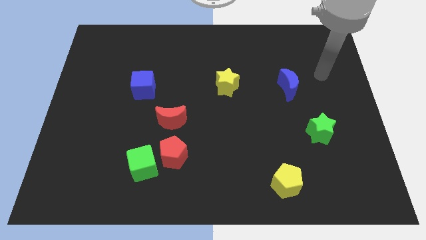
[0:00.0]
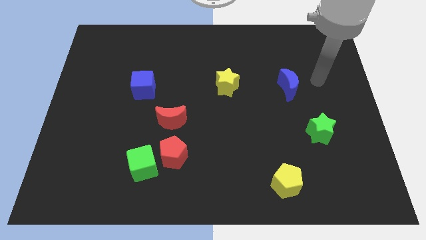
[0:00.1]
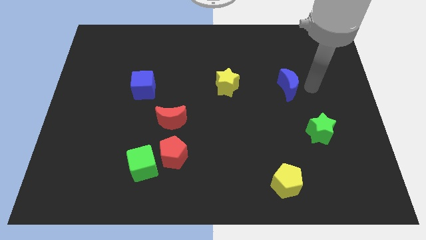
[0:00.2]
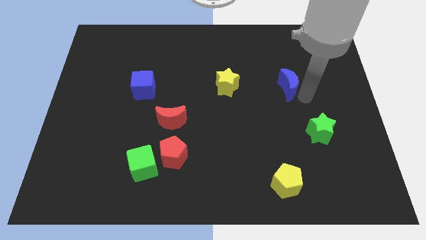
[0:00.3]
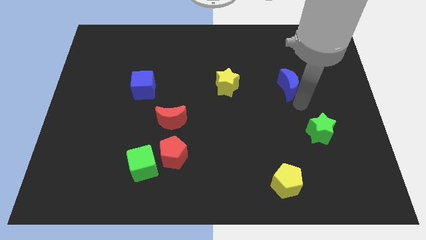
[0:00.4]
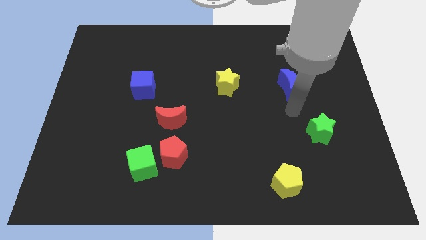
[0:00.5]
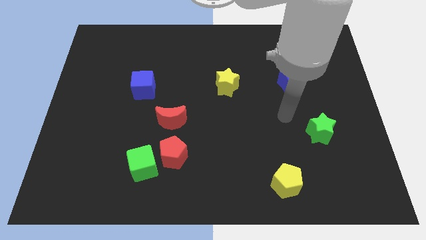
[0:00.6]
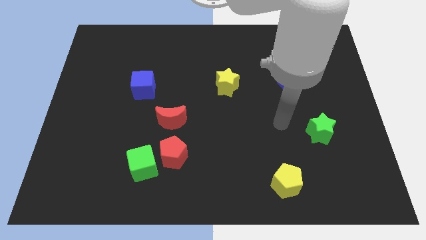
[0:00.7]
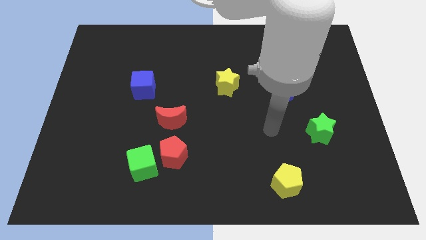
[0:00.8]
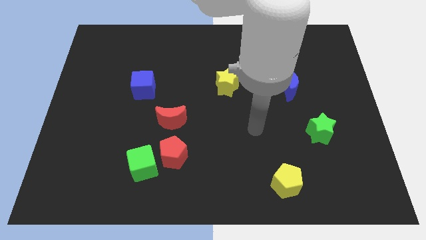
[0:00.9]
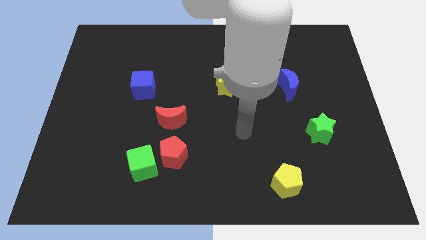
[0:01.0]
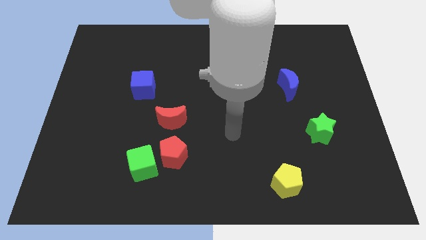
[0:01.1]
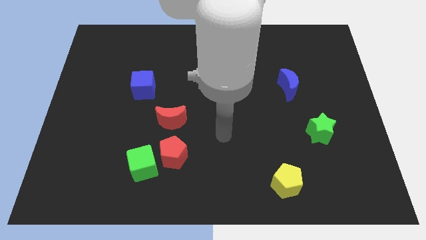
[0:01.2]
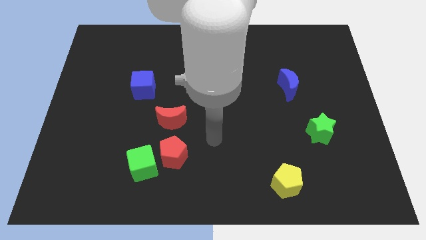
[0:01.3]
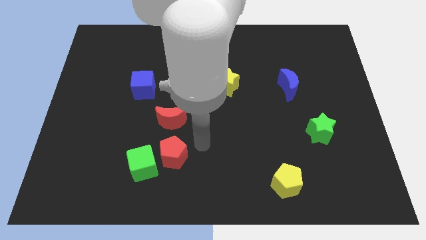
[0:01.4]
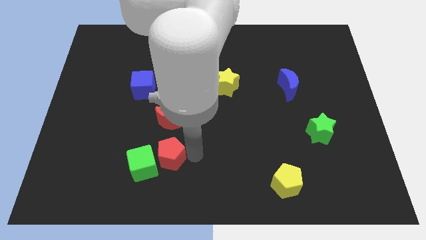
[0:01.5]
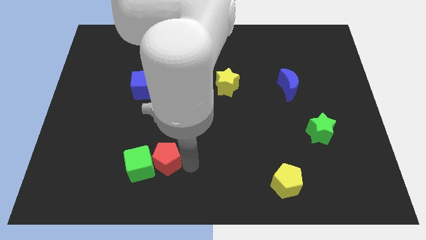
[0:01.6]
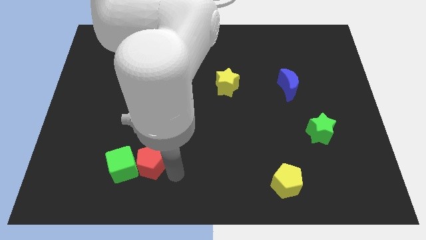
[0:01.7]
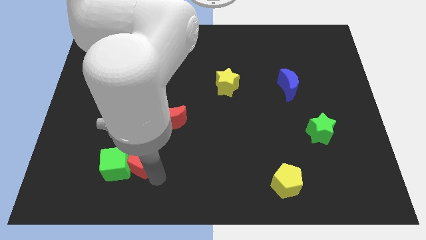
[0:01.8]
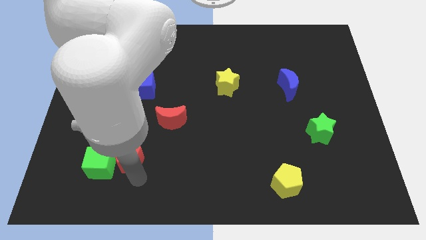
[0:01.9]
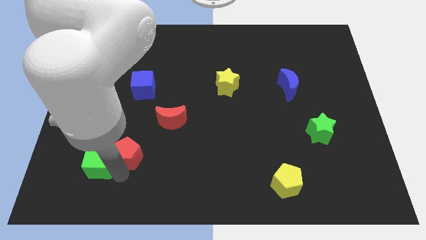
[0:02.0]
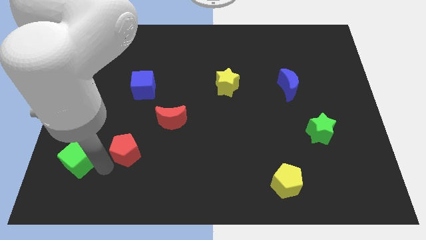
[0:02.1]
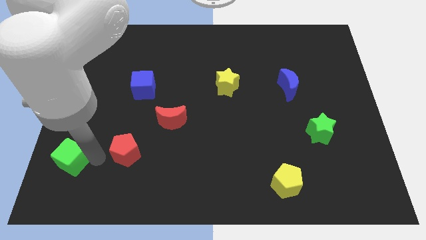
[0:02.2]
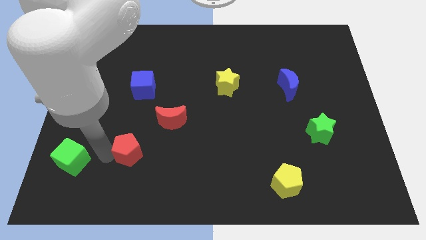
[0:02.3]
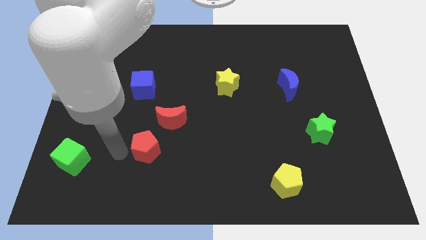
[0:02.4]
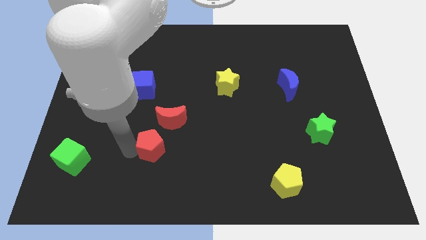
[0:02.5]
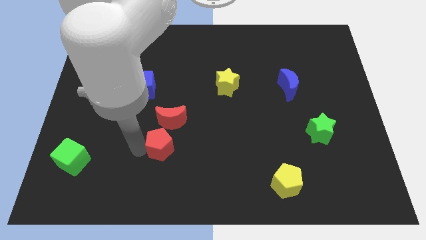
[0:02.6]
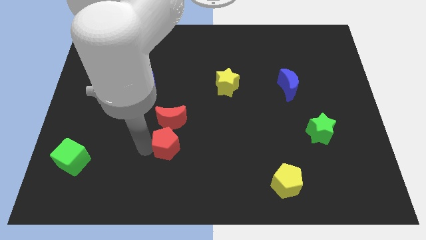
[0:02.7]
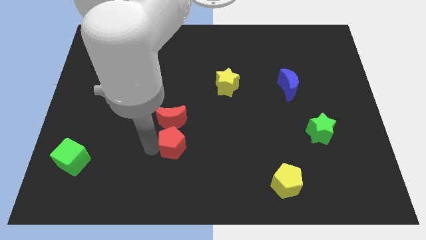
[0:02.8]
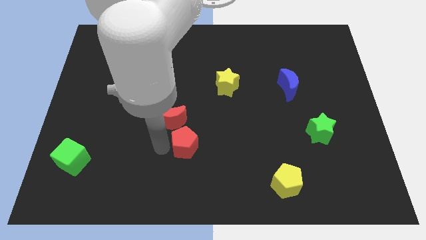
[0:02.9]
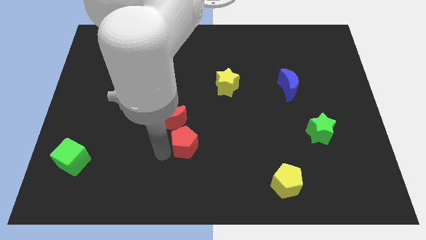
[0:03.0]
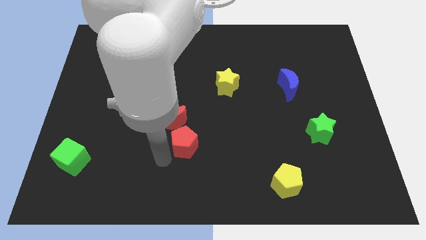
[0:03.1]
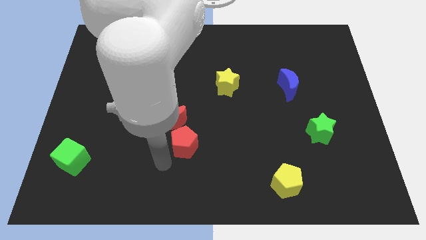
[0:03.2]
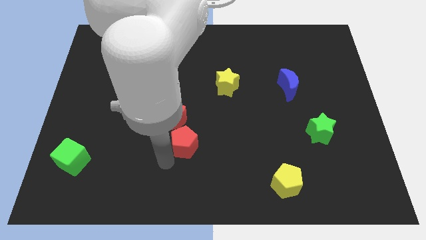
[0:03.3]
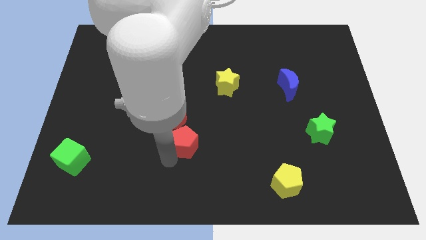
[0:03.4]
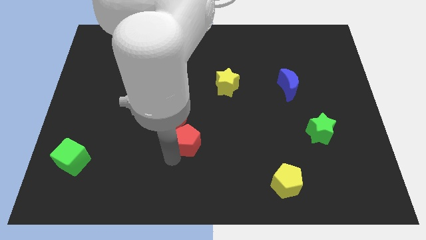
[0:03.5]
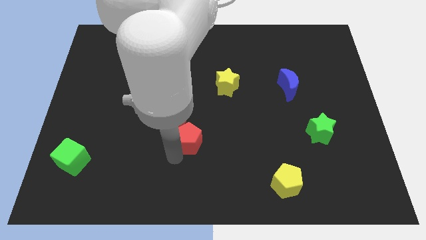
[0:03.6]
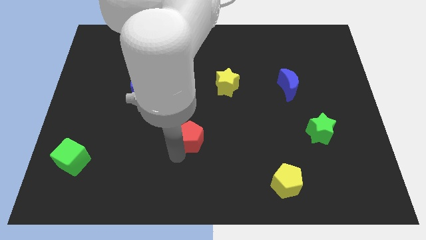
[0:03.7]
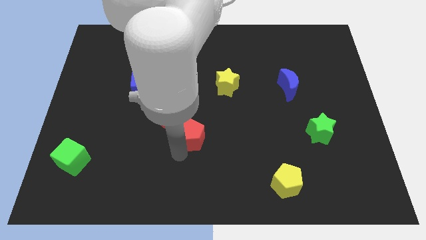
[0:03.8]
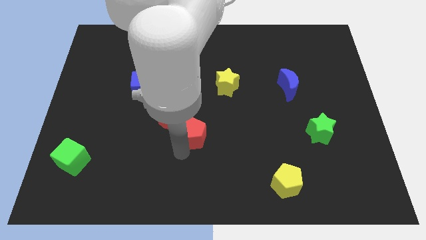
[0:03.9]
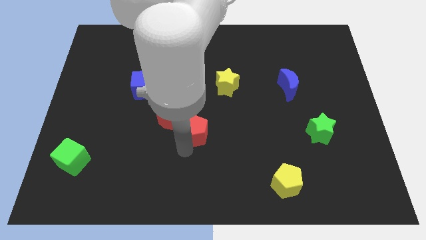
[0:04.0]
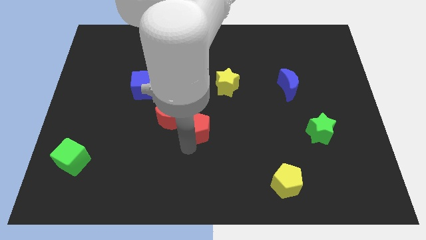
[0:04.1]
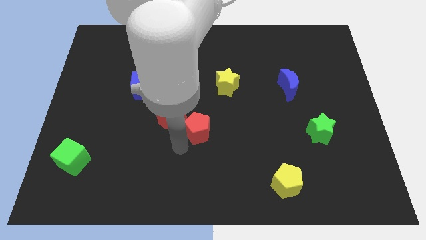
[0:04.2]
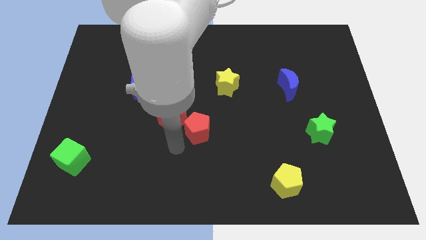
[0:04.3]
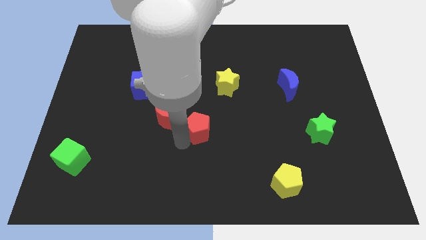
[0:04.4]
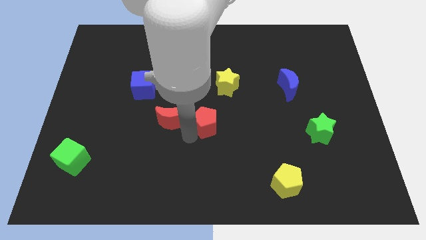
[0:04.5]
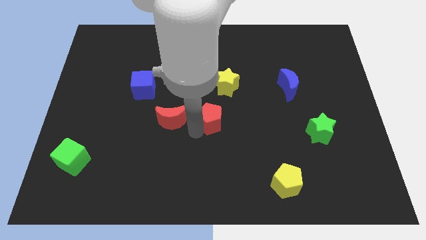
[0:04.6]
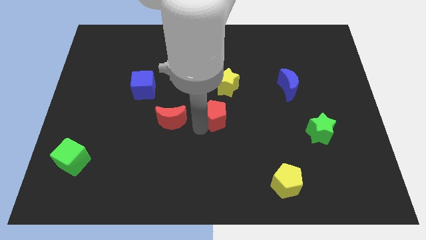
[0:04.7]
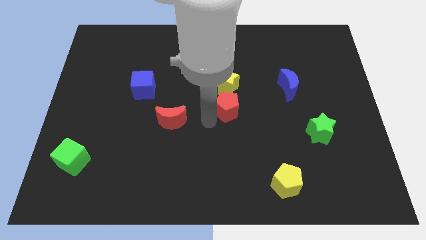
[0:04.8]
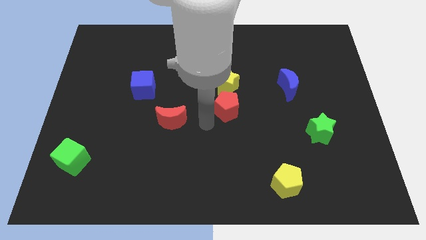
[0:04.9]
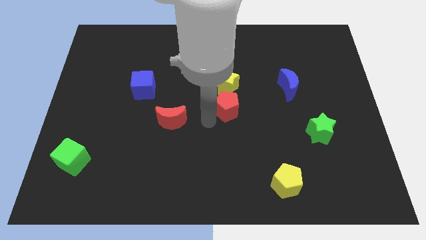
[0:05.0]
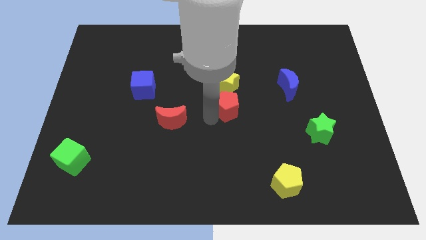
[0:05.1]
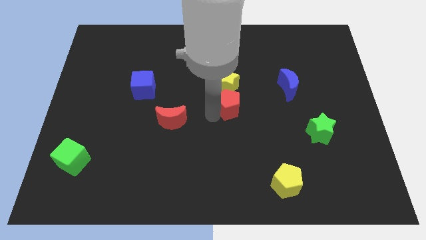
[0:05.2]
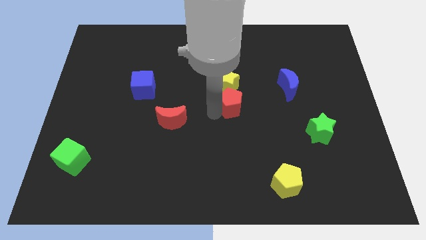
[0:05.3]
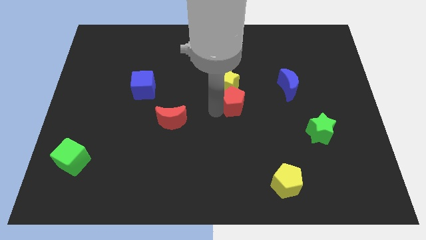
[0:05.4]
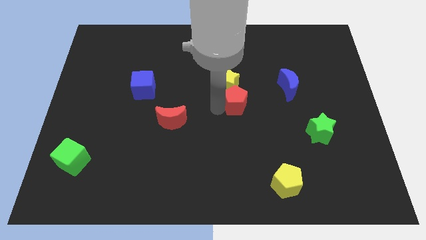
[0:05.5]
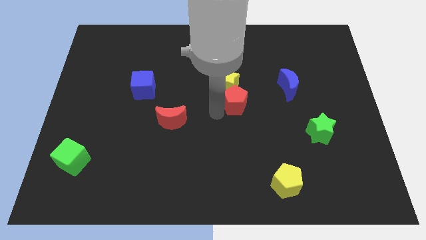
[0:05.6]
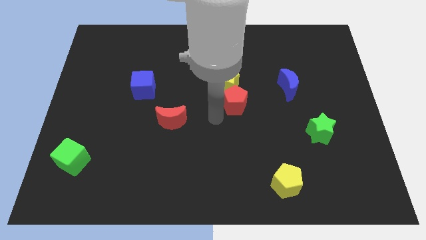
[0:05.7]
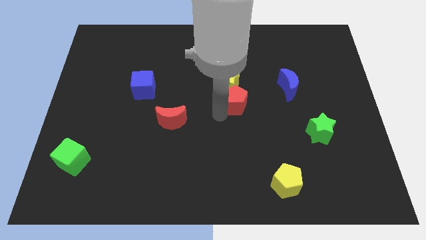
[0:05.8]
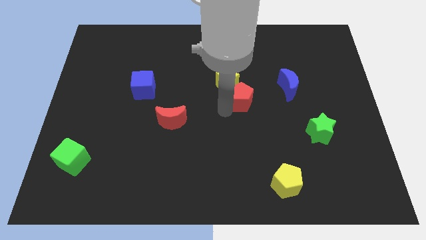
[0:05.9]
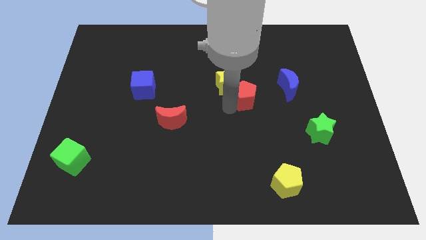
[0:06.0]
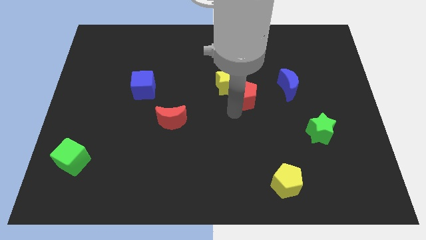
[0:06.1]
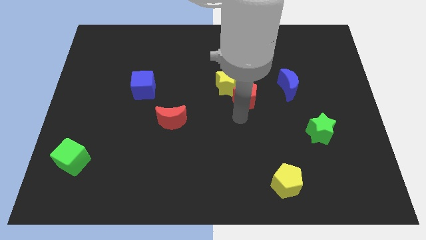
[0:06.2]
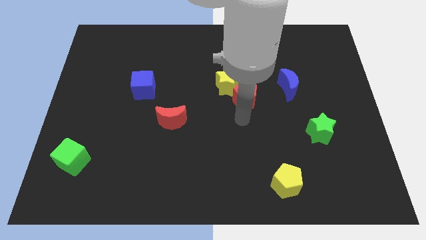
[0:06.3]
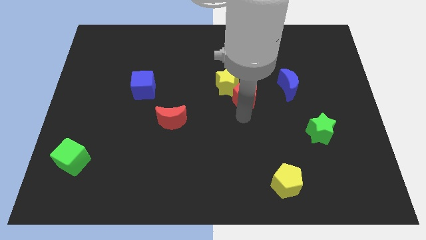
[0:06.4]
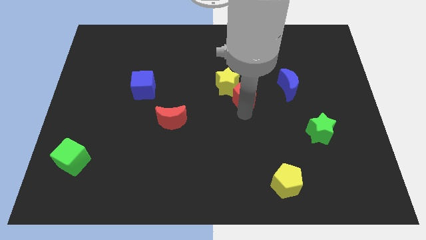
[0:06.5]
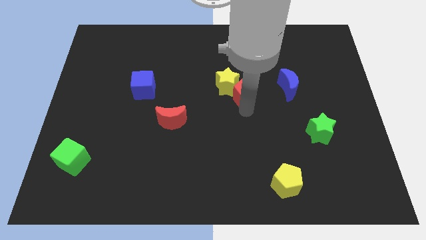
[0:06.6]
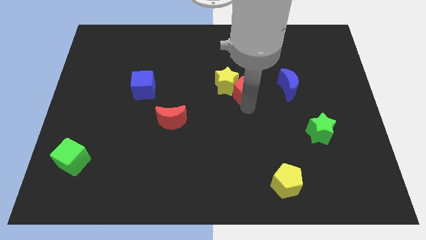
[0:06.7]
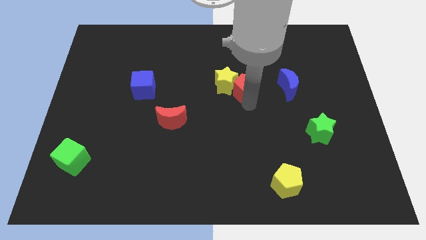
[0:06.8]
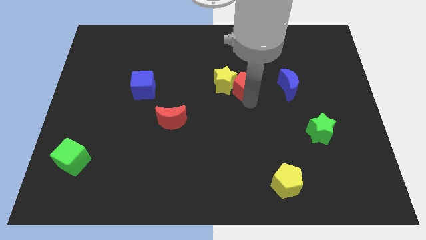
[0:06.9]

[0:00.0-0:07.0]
slide the red pentagon diagonally up and to the right of the yellow star
